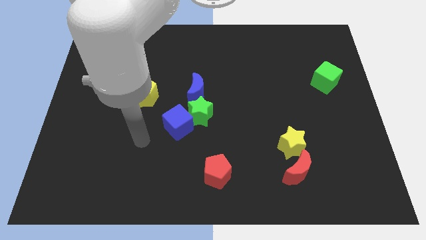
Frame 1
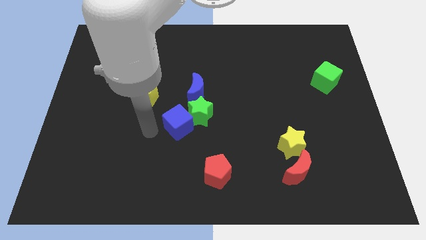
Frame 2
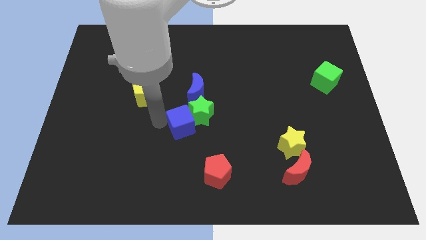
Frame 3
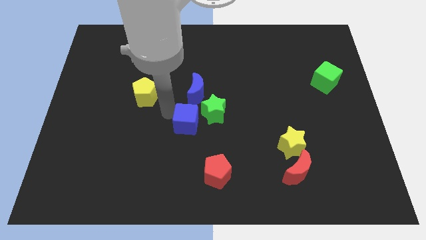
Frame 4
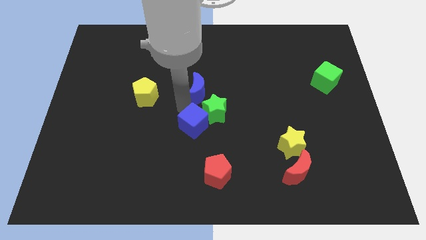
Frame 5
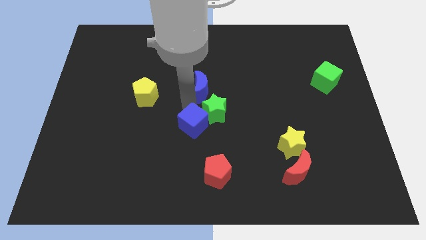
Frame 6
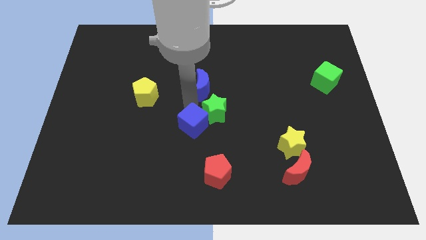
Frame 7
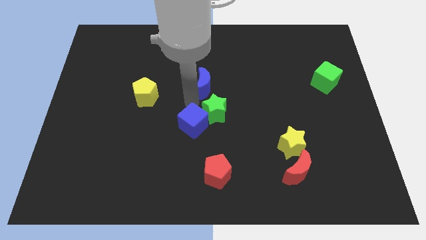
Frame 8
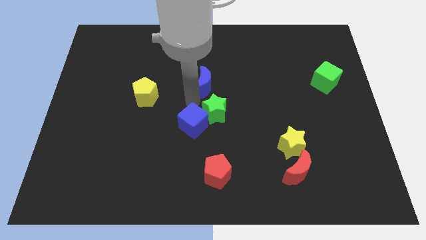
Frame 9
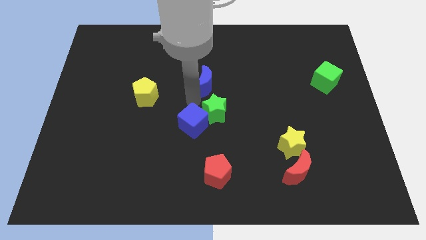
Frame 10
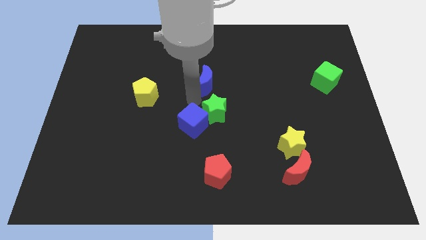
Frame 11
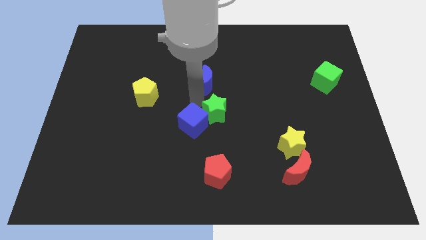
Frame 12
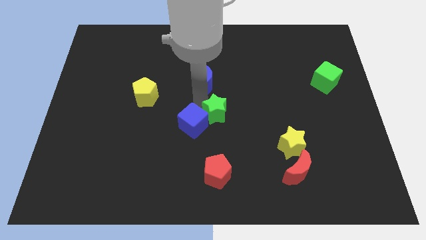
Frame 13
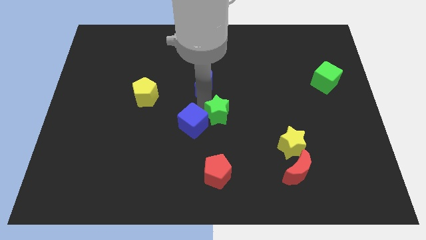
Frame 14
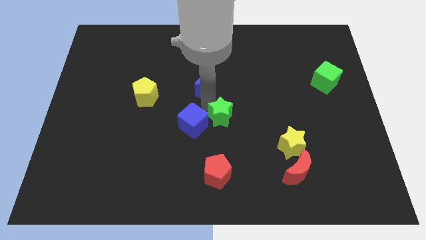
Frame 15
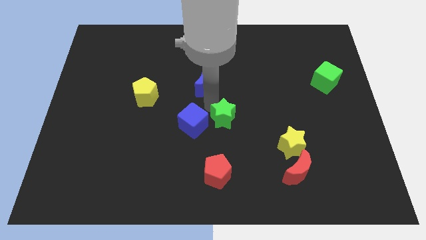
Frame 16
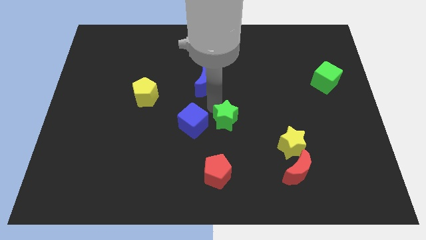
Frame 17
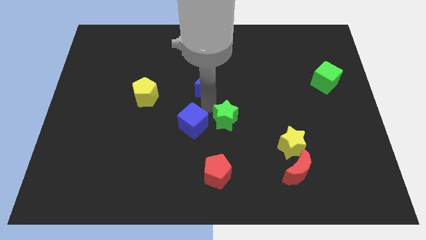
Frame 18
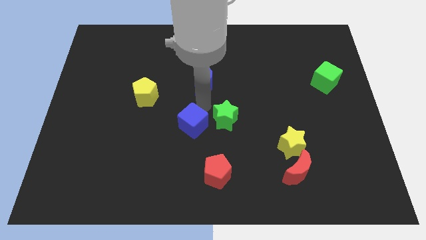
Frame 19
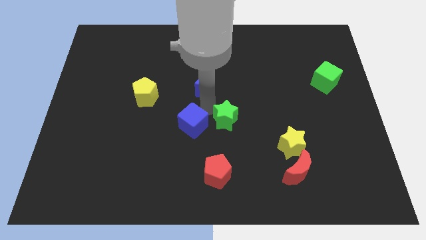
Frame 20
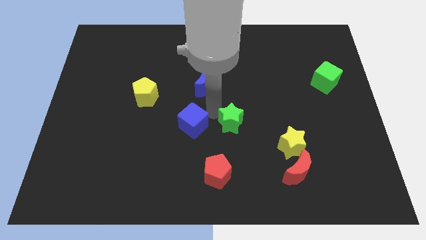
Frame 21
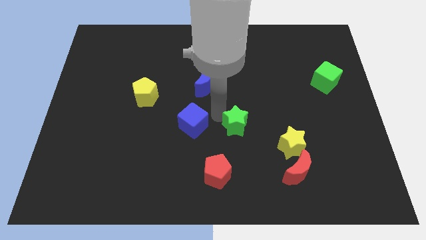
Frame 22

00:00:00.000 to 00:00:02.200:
separate the green star from the blue cube and blue moon

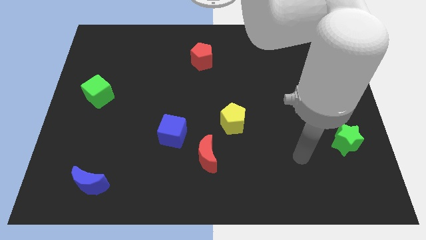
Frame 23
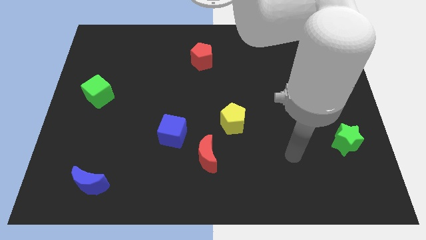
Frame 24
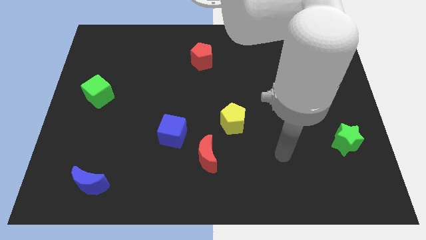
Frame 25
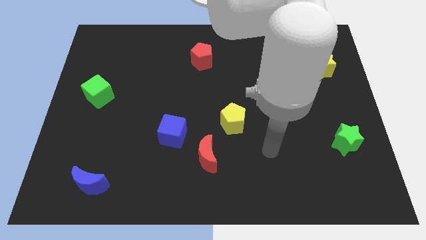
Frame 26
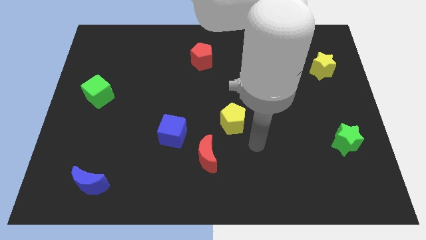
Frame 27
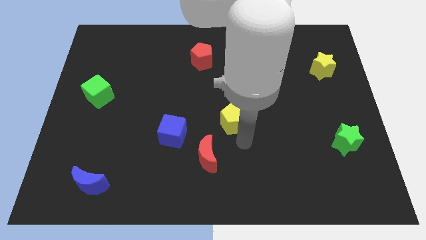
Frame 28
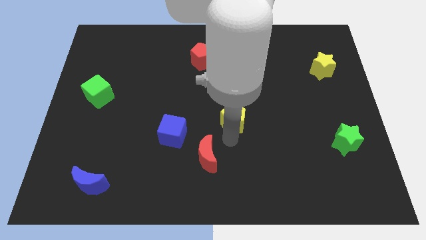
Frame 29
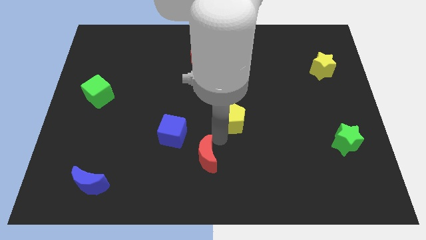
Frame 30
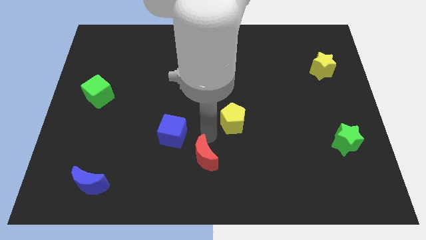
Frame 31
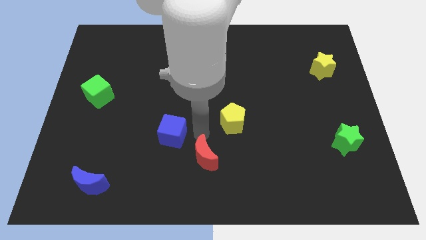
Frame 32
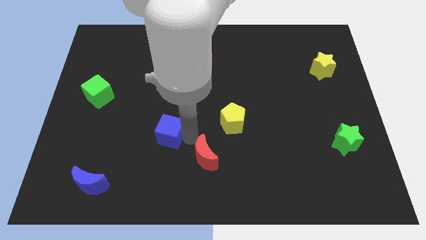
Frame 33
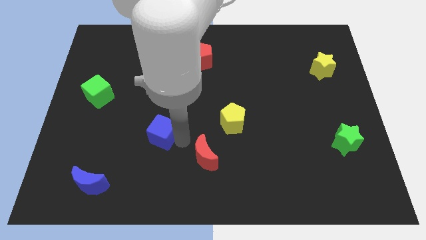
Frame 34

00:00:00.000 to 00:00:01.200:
separate the red moon from the blue cube

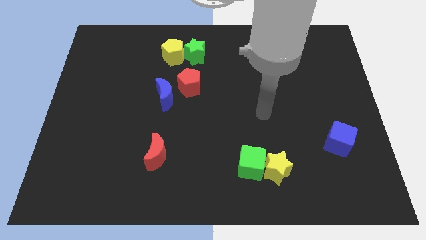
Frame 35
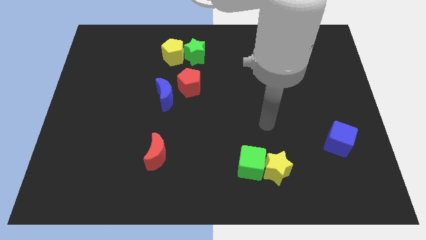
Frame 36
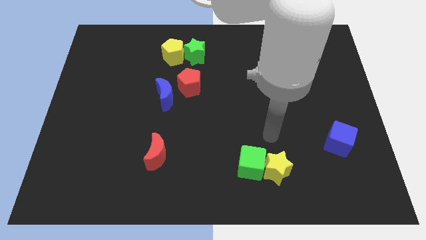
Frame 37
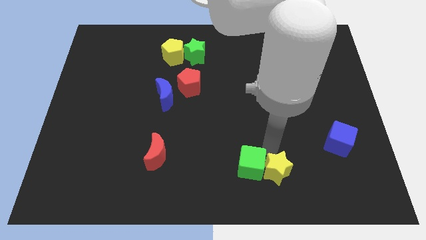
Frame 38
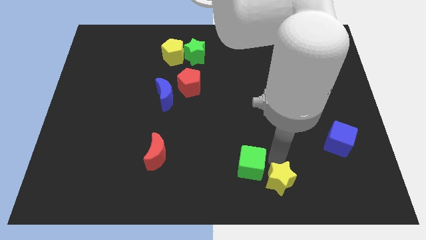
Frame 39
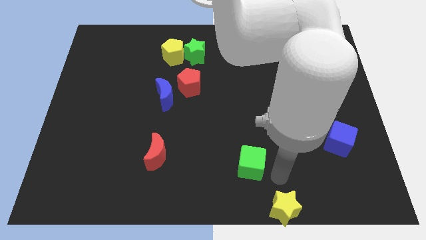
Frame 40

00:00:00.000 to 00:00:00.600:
separate the green cube from the yellow star

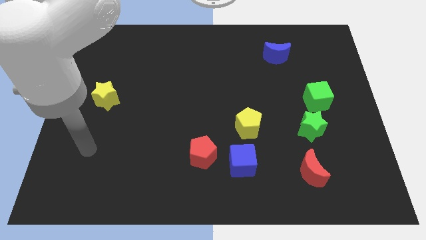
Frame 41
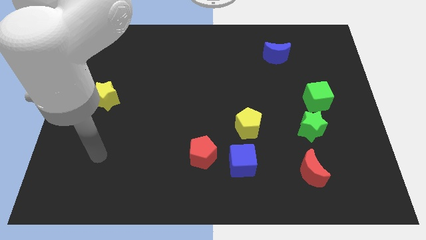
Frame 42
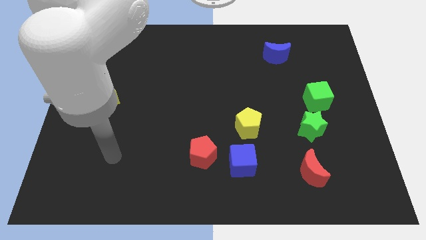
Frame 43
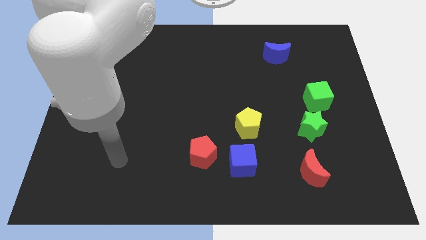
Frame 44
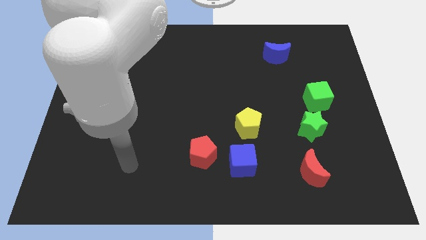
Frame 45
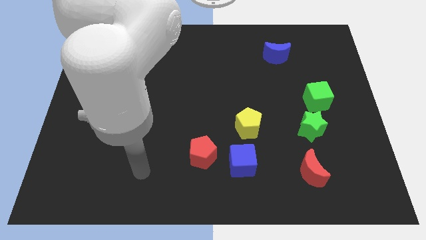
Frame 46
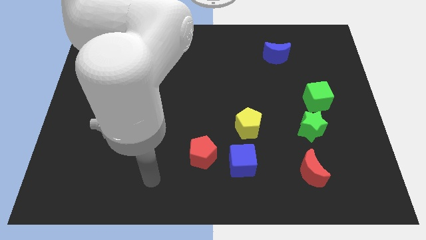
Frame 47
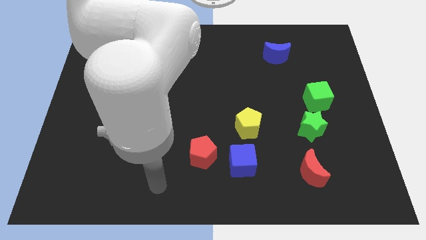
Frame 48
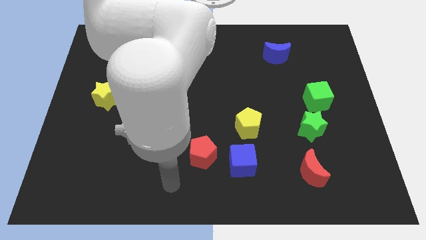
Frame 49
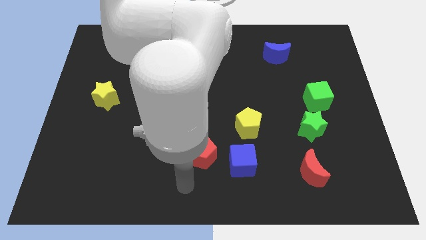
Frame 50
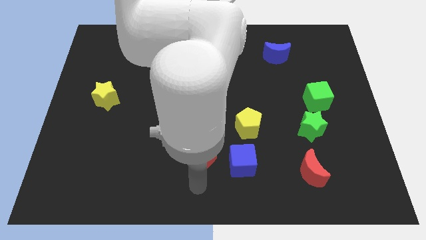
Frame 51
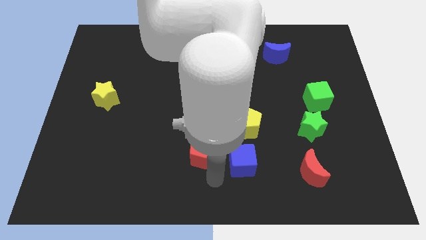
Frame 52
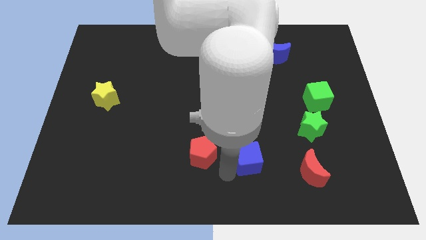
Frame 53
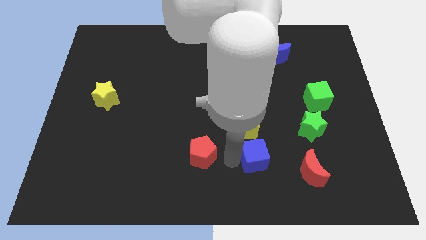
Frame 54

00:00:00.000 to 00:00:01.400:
pull the red pentagon apart from the blue cube

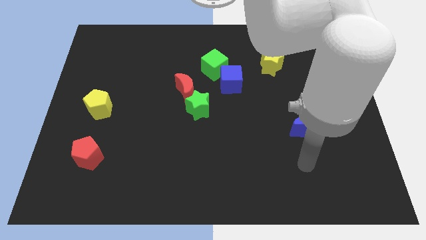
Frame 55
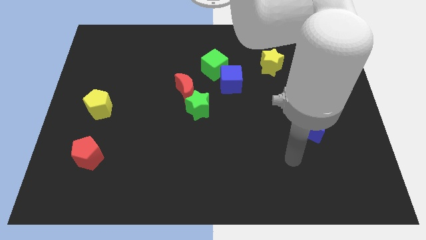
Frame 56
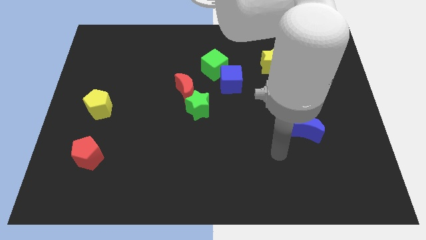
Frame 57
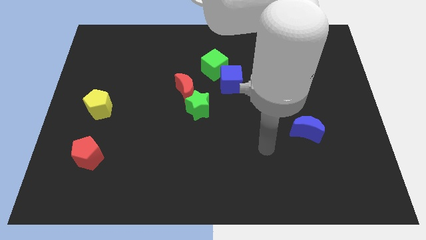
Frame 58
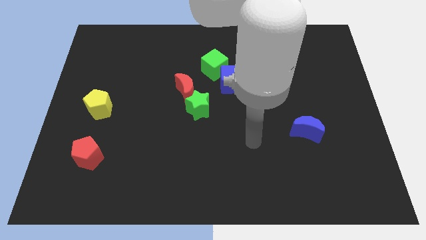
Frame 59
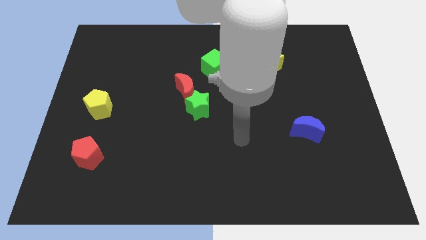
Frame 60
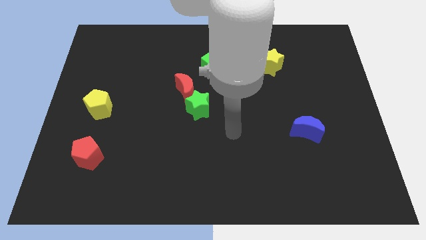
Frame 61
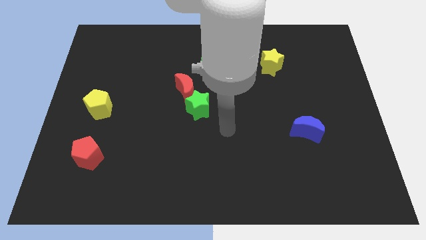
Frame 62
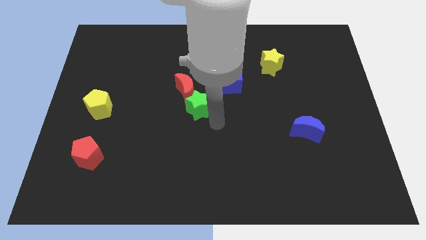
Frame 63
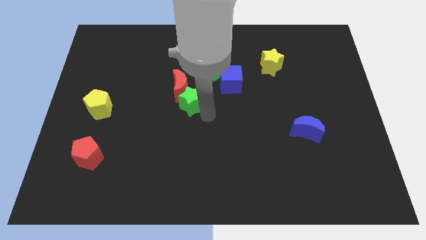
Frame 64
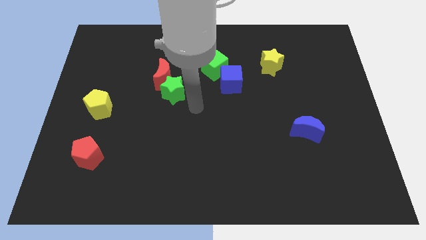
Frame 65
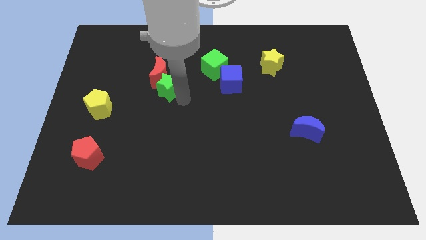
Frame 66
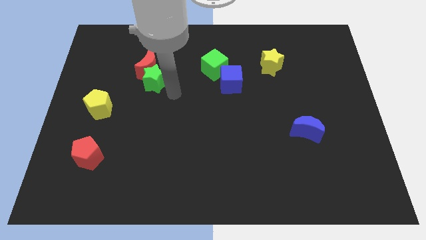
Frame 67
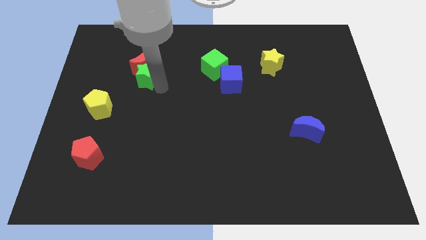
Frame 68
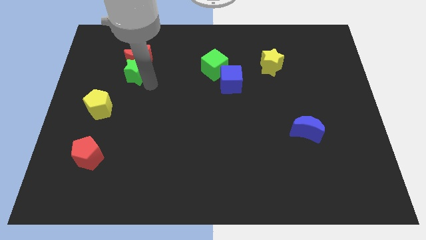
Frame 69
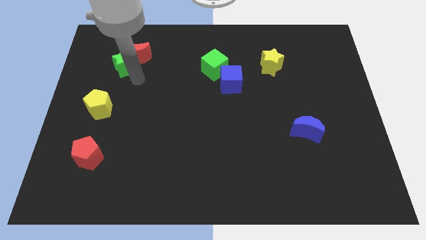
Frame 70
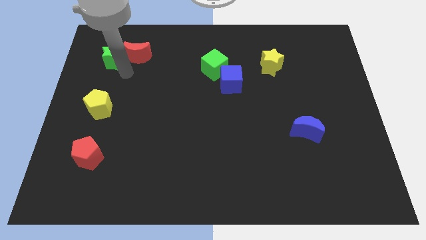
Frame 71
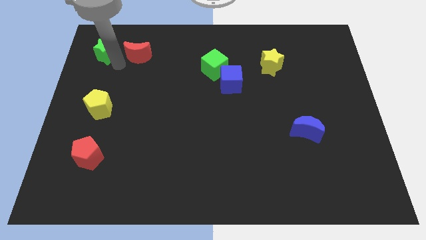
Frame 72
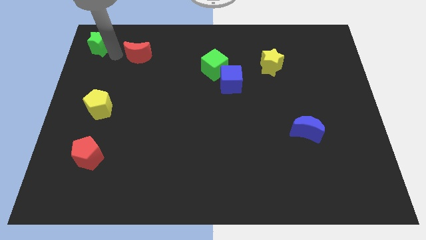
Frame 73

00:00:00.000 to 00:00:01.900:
pull the red moon apart from the green star

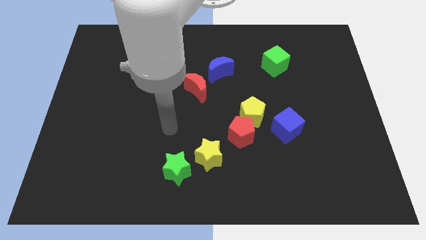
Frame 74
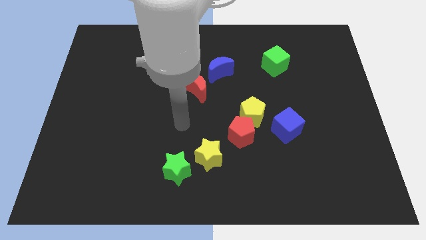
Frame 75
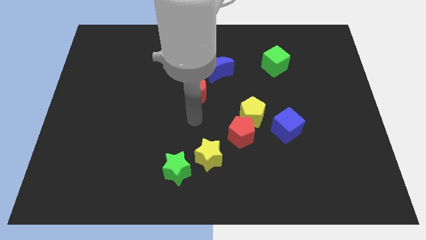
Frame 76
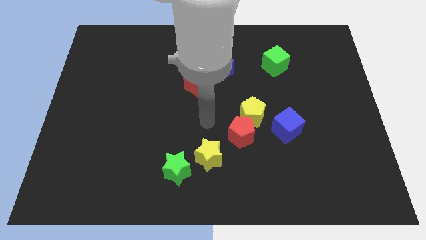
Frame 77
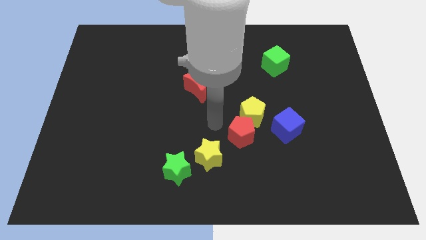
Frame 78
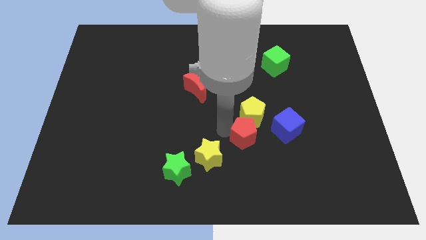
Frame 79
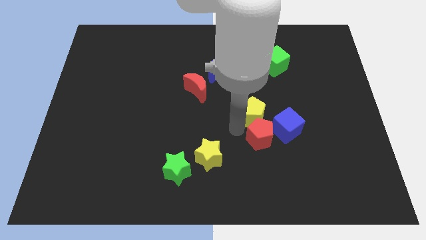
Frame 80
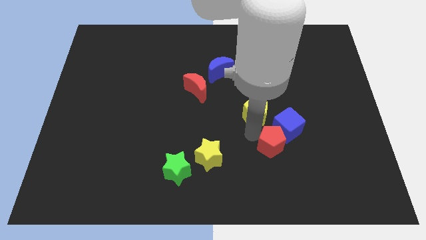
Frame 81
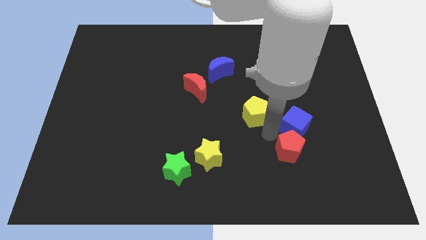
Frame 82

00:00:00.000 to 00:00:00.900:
separate the yellow pentagon from the red pentagon and blue cube

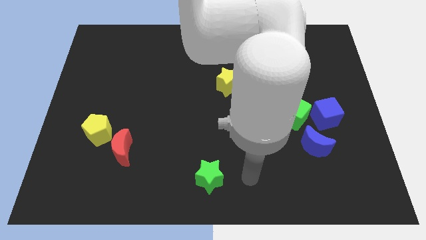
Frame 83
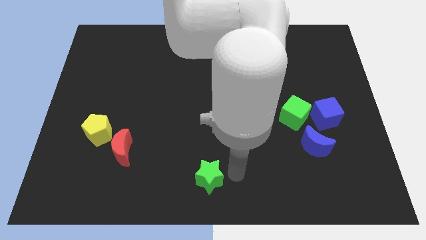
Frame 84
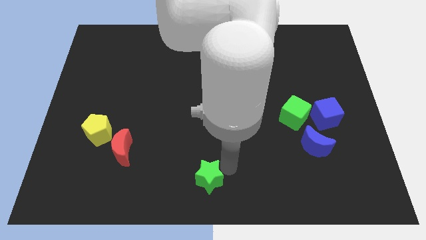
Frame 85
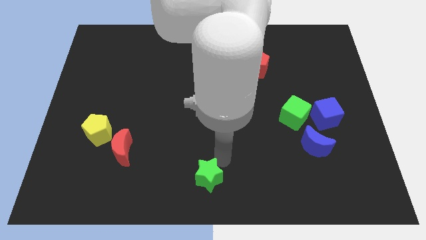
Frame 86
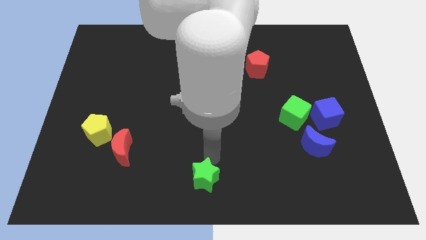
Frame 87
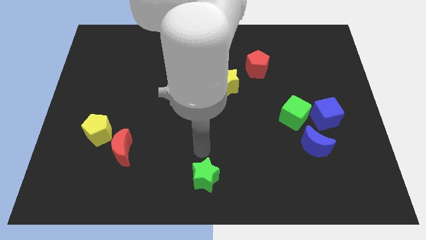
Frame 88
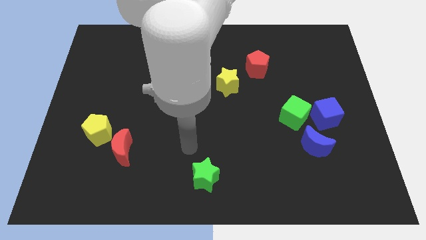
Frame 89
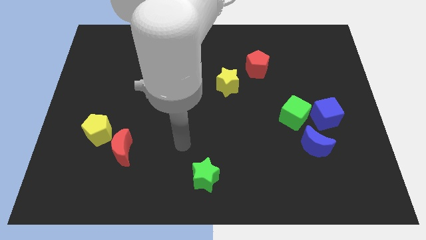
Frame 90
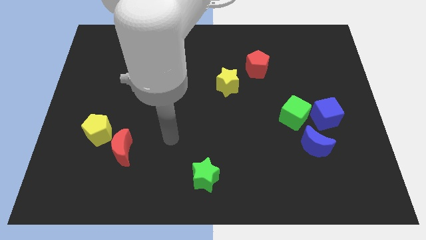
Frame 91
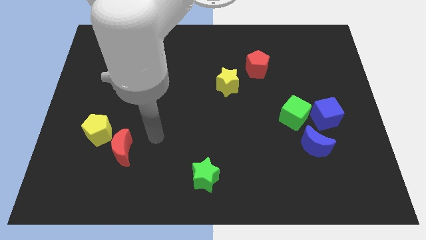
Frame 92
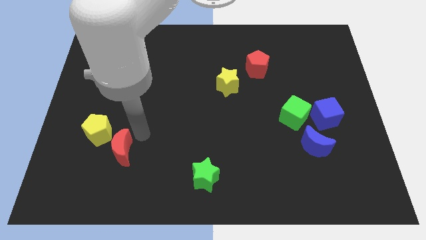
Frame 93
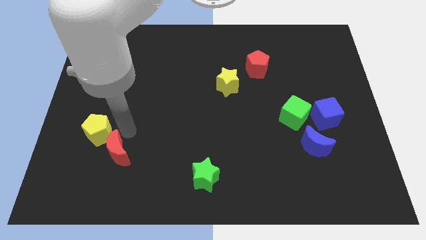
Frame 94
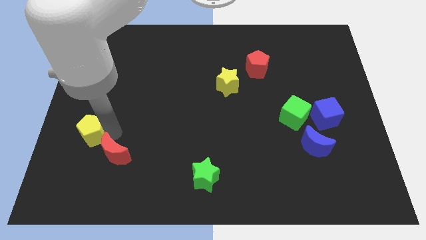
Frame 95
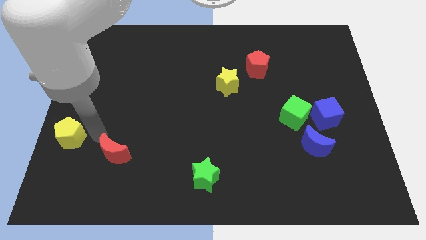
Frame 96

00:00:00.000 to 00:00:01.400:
move the red moon away from the yellow pentagon
